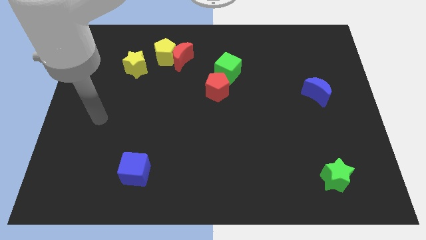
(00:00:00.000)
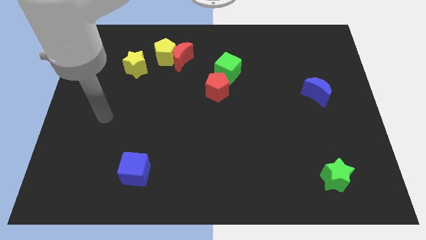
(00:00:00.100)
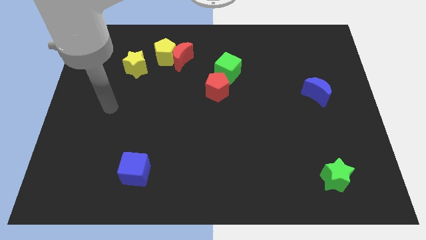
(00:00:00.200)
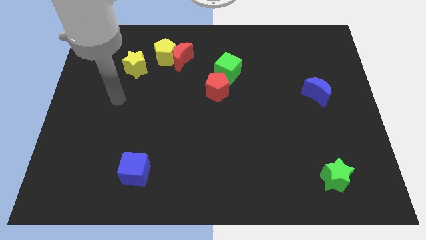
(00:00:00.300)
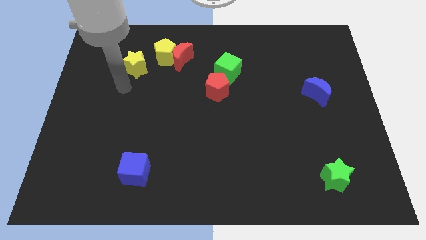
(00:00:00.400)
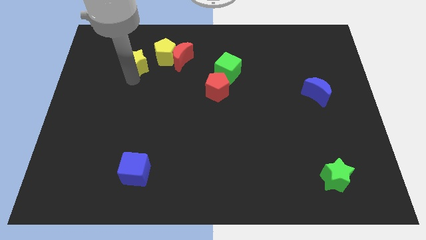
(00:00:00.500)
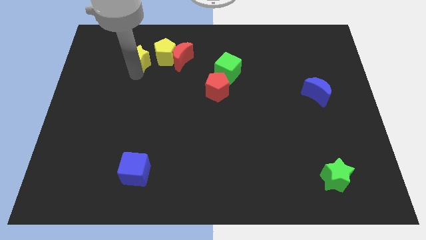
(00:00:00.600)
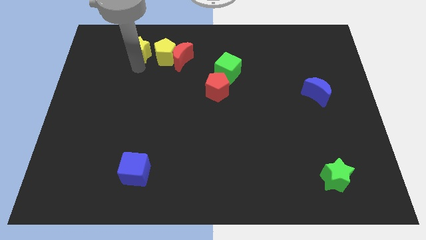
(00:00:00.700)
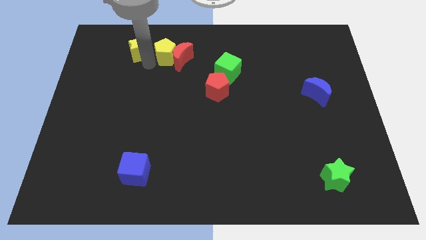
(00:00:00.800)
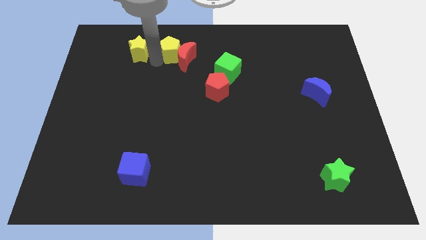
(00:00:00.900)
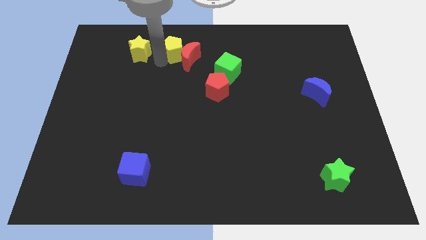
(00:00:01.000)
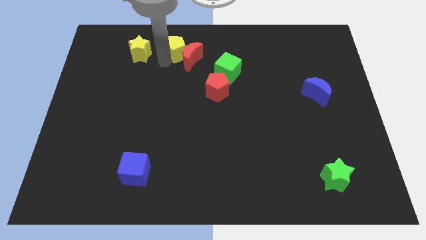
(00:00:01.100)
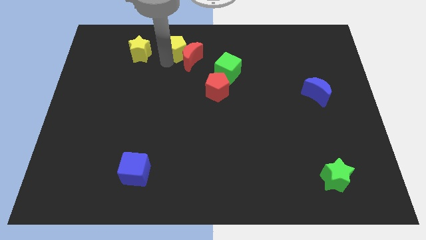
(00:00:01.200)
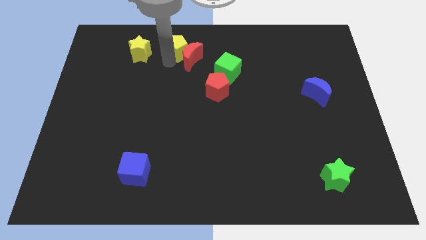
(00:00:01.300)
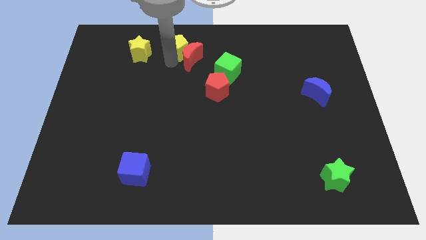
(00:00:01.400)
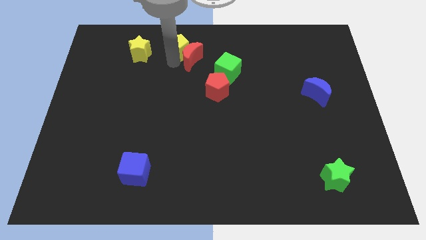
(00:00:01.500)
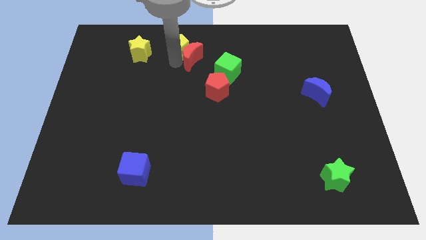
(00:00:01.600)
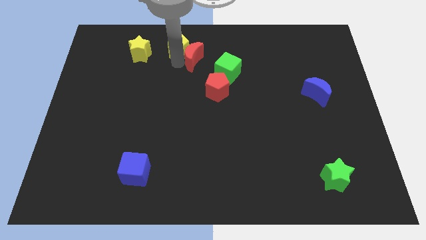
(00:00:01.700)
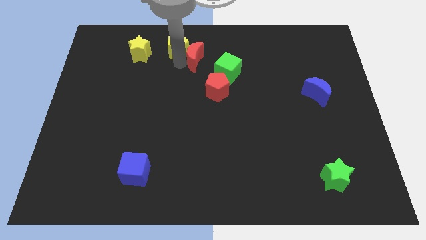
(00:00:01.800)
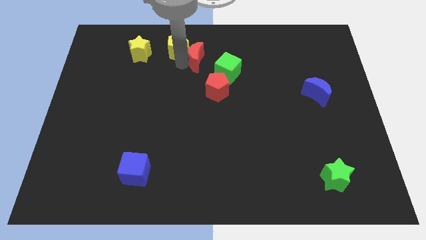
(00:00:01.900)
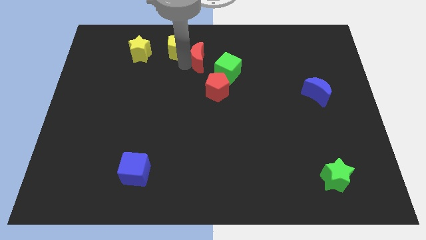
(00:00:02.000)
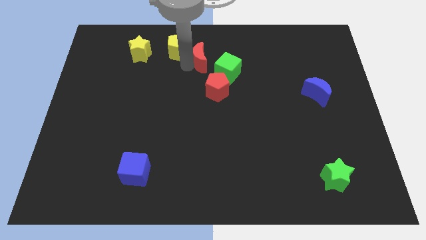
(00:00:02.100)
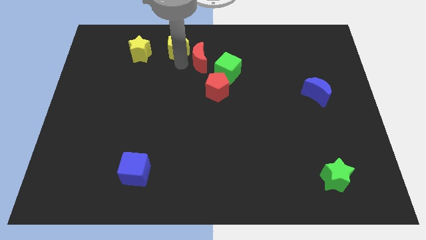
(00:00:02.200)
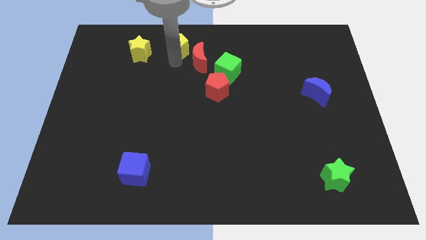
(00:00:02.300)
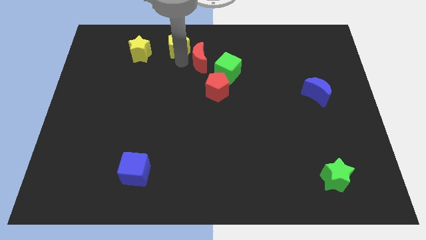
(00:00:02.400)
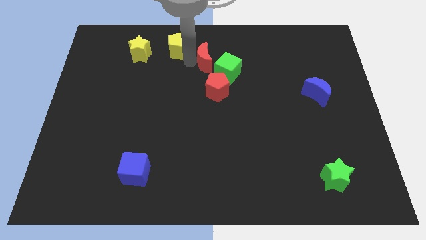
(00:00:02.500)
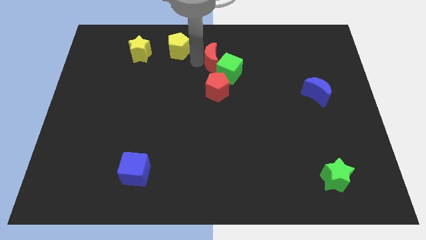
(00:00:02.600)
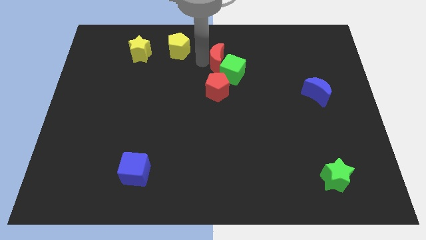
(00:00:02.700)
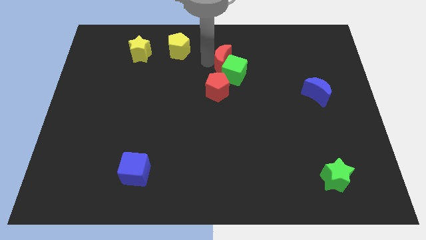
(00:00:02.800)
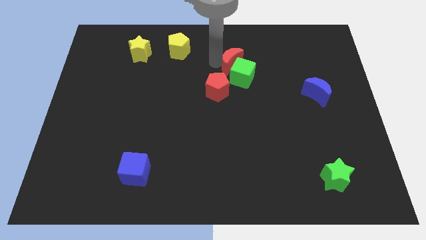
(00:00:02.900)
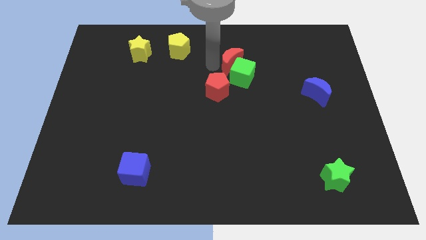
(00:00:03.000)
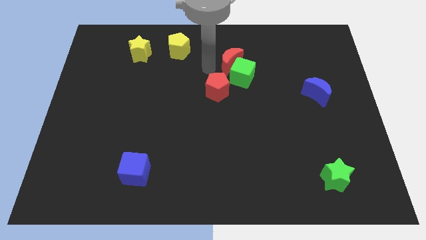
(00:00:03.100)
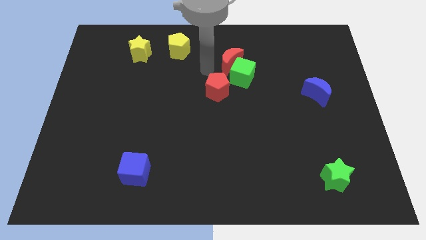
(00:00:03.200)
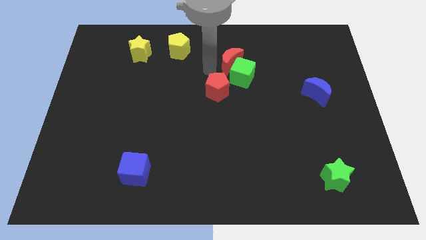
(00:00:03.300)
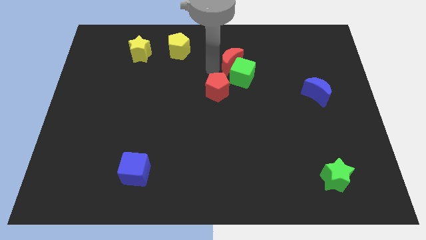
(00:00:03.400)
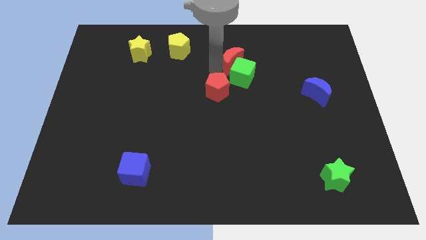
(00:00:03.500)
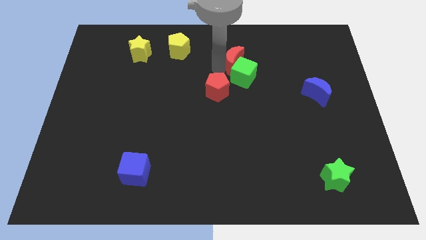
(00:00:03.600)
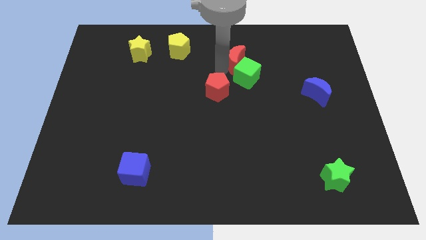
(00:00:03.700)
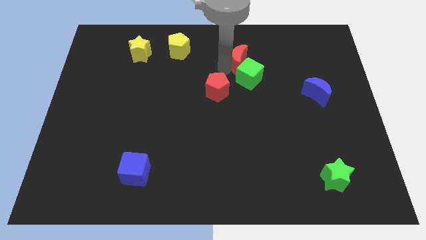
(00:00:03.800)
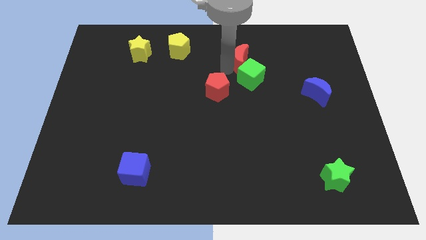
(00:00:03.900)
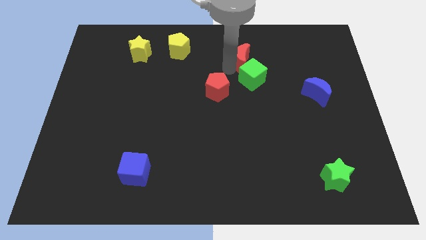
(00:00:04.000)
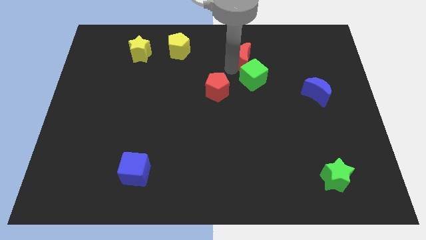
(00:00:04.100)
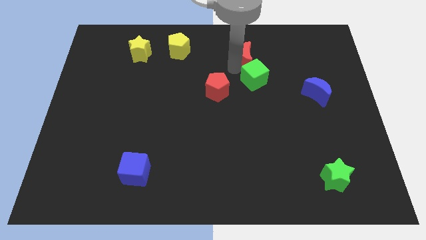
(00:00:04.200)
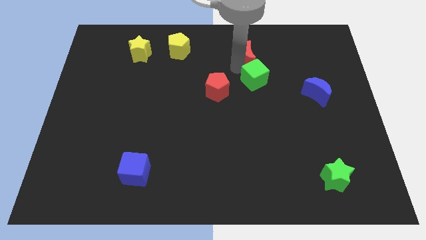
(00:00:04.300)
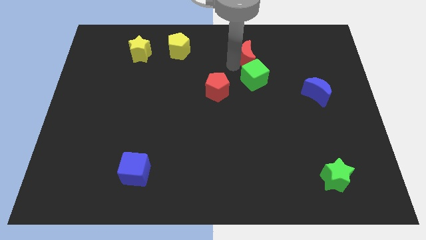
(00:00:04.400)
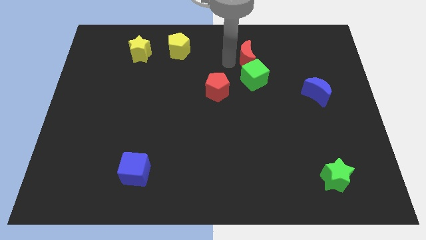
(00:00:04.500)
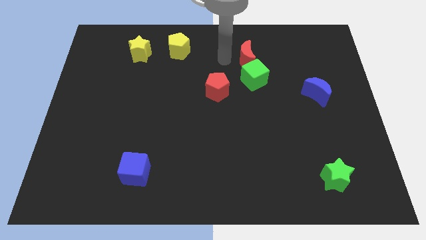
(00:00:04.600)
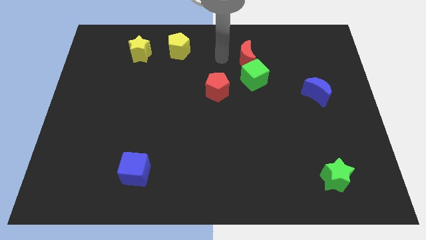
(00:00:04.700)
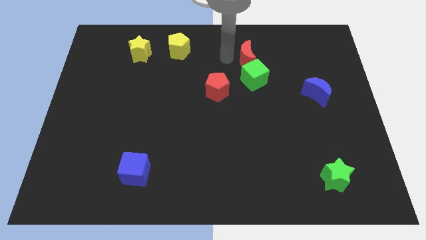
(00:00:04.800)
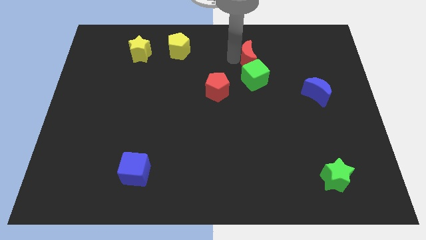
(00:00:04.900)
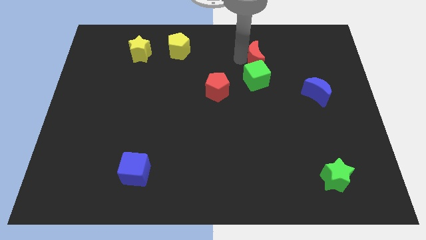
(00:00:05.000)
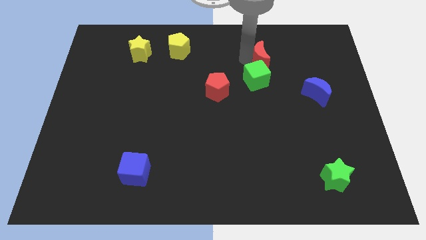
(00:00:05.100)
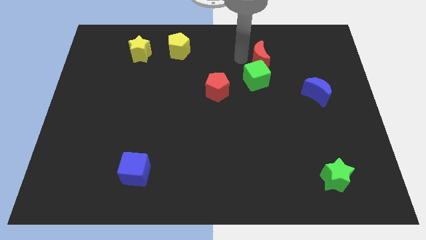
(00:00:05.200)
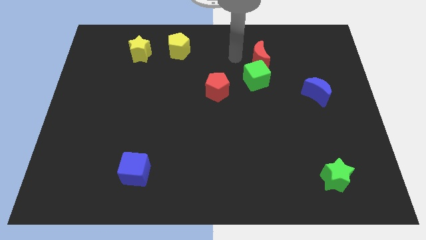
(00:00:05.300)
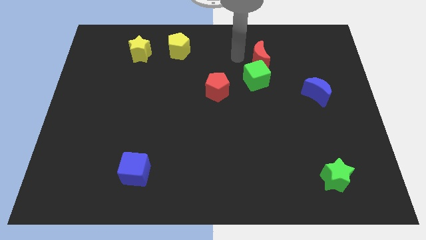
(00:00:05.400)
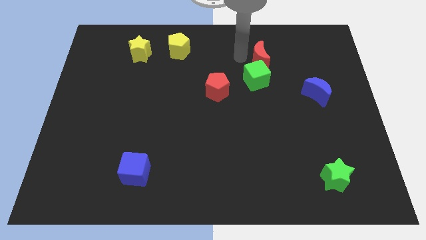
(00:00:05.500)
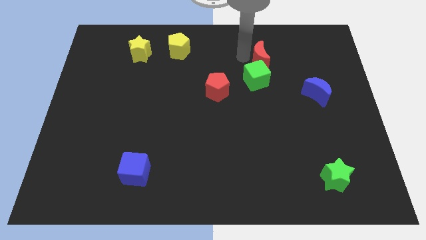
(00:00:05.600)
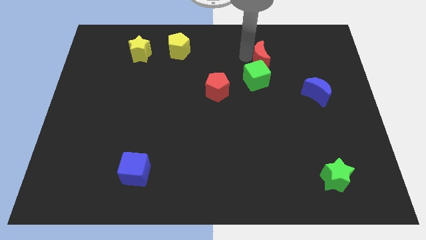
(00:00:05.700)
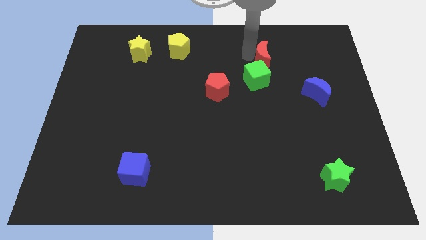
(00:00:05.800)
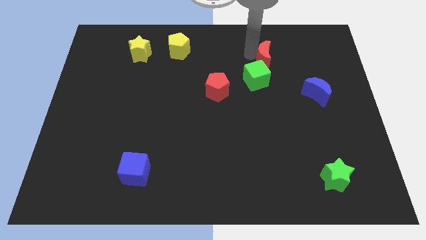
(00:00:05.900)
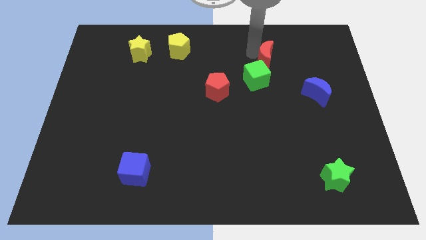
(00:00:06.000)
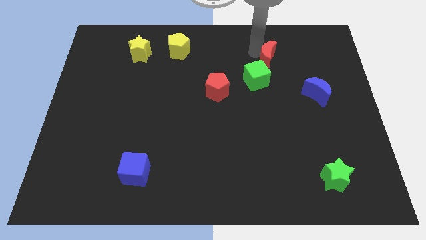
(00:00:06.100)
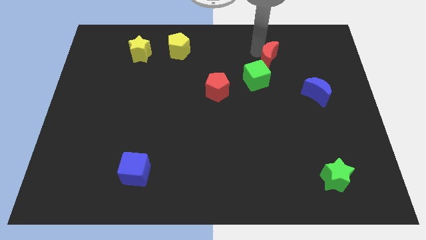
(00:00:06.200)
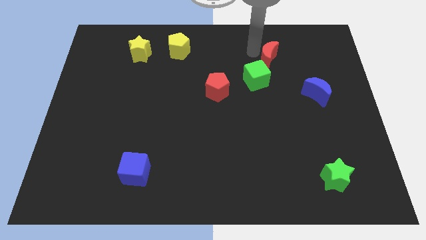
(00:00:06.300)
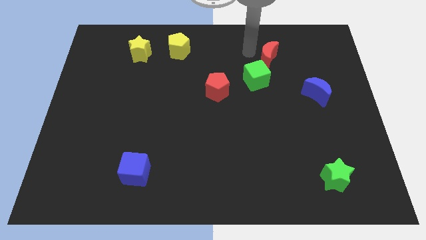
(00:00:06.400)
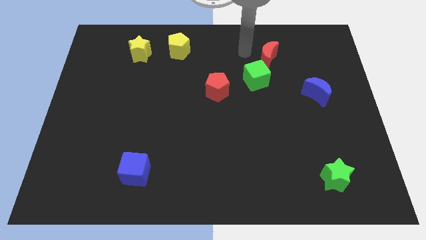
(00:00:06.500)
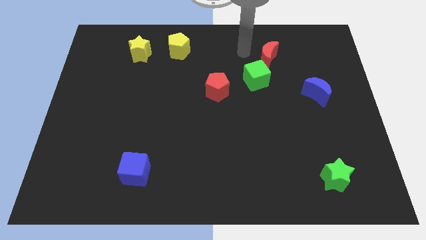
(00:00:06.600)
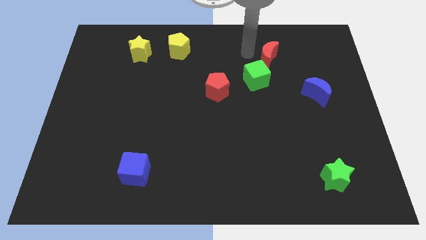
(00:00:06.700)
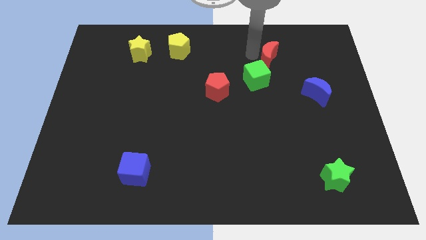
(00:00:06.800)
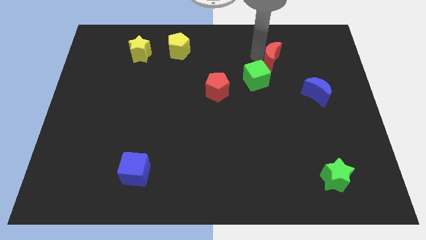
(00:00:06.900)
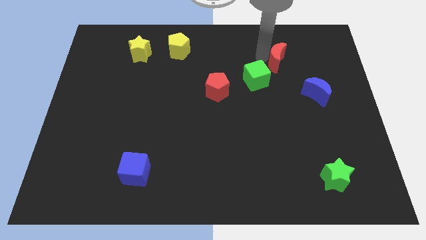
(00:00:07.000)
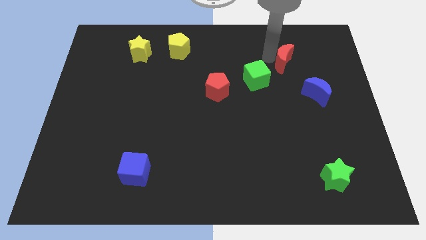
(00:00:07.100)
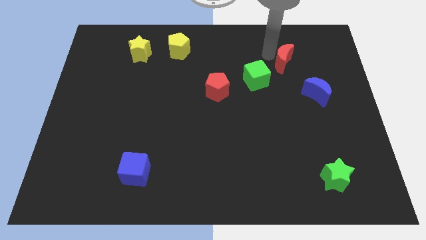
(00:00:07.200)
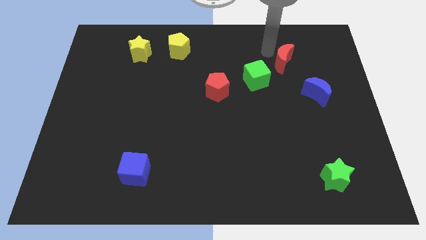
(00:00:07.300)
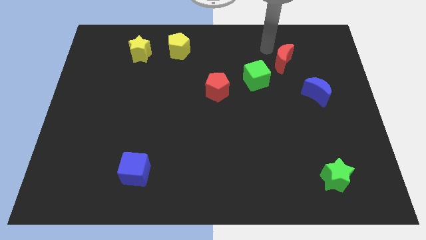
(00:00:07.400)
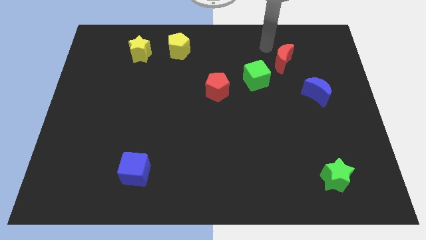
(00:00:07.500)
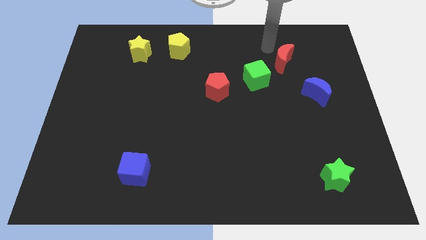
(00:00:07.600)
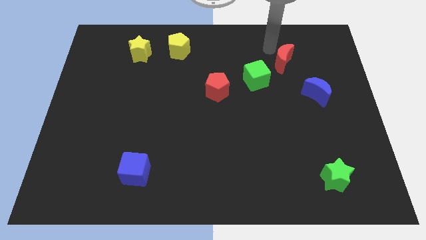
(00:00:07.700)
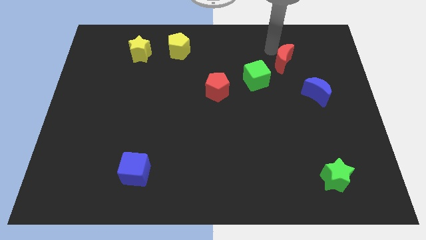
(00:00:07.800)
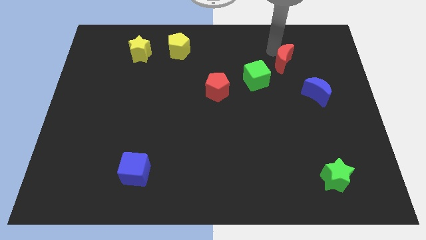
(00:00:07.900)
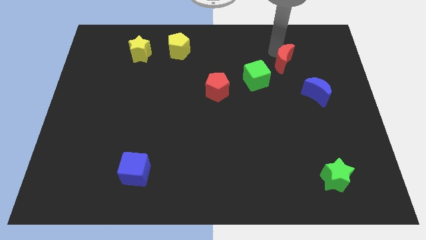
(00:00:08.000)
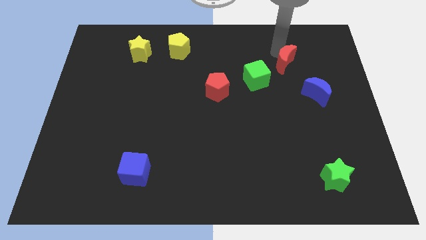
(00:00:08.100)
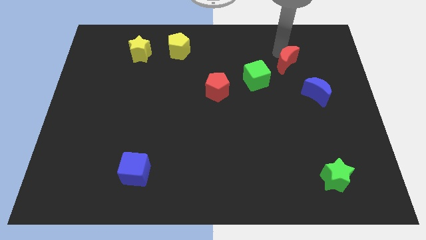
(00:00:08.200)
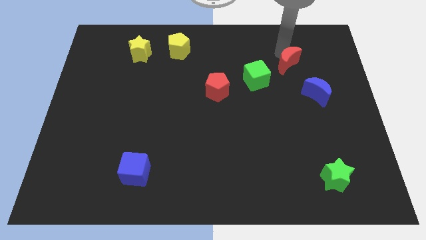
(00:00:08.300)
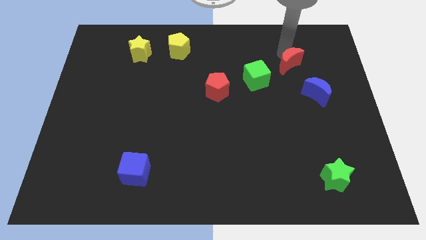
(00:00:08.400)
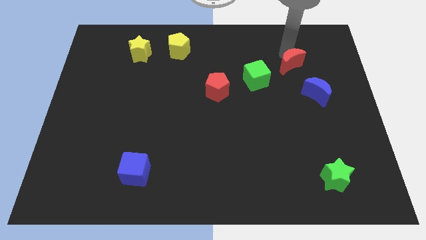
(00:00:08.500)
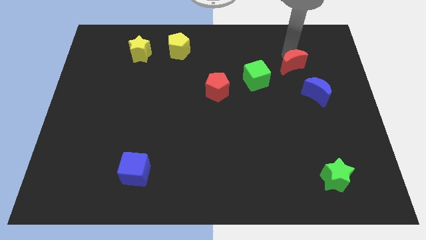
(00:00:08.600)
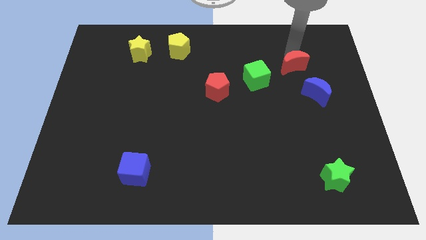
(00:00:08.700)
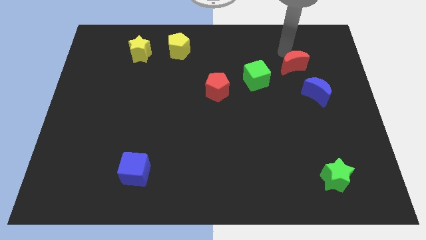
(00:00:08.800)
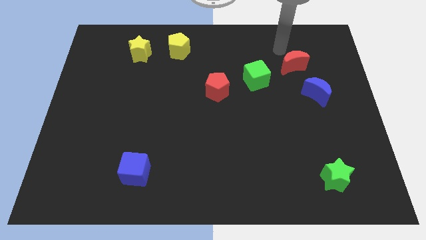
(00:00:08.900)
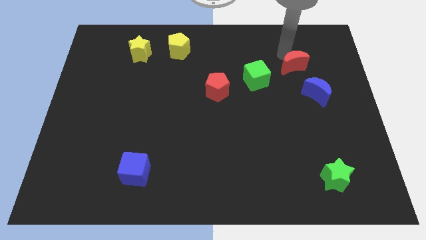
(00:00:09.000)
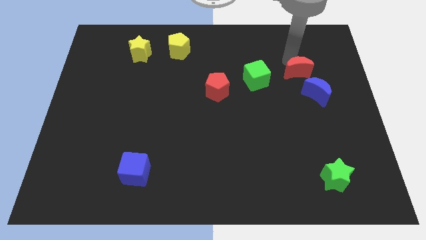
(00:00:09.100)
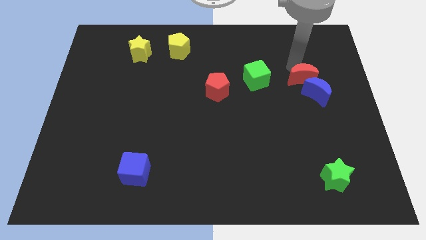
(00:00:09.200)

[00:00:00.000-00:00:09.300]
move the red moon to the blue moon
